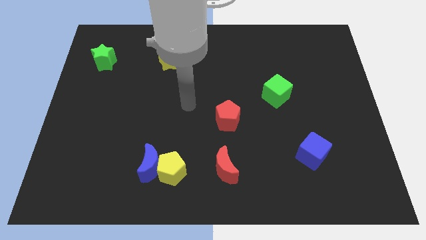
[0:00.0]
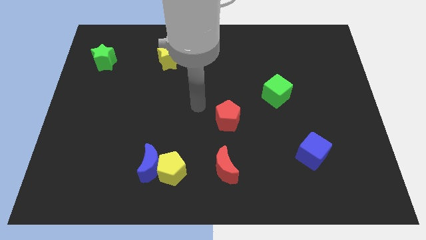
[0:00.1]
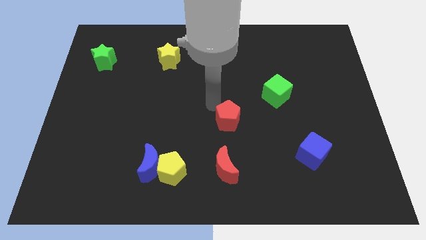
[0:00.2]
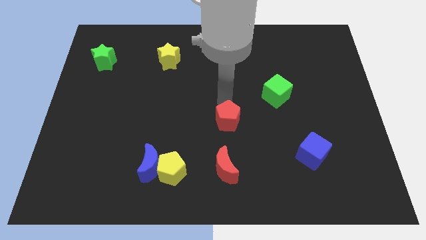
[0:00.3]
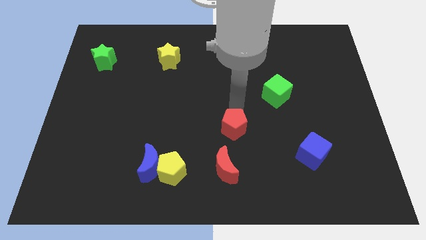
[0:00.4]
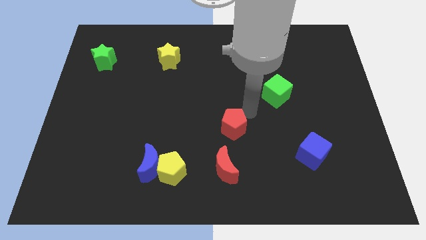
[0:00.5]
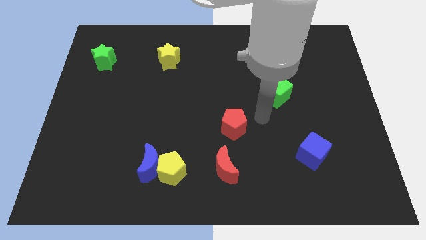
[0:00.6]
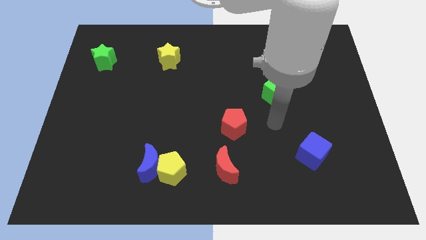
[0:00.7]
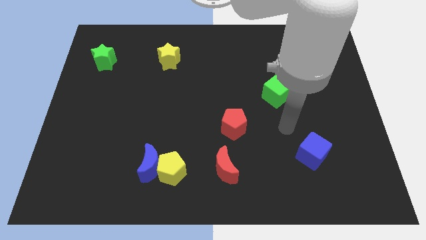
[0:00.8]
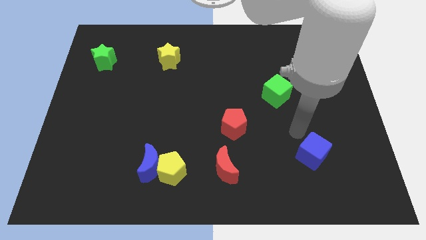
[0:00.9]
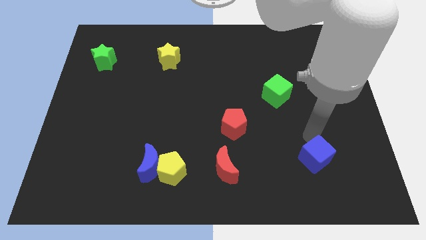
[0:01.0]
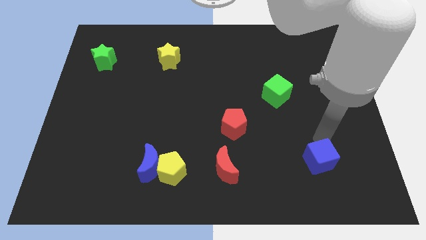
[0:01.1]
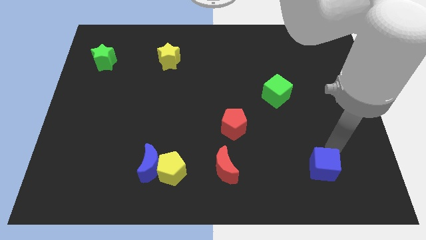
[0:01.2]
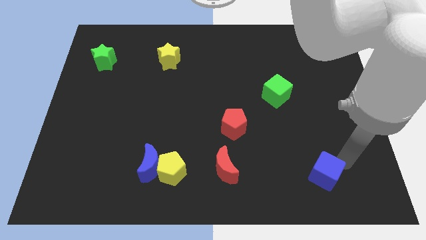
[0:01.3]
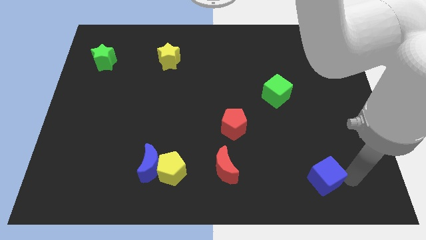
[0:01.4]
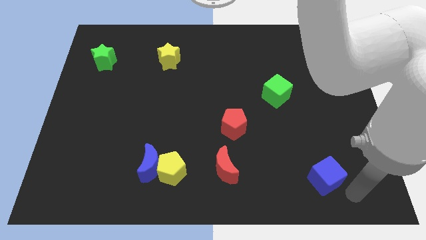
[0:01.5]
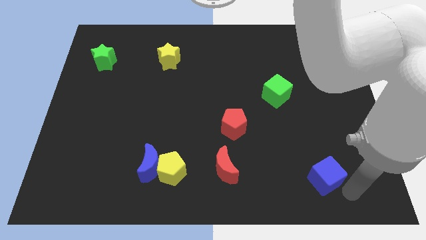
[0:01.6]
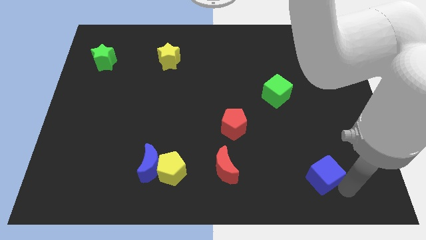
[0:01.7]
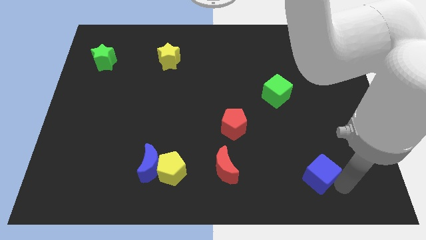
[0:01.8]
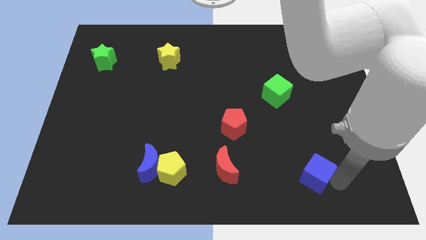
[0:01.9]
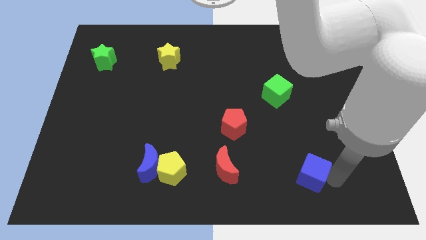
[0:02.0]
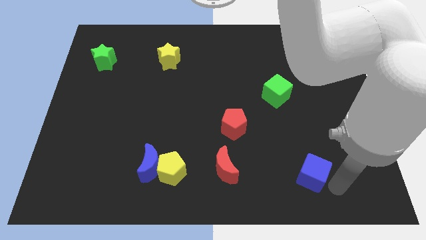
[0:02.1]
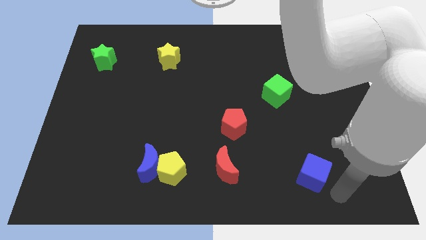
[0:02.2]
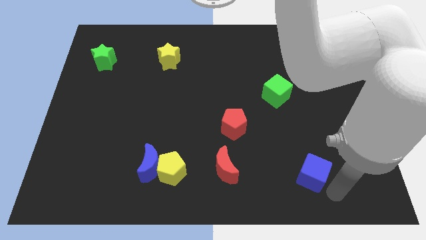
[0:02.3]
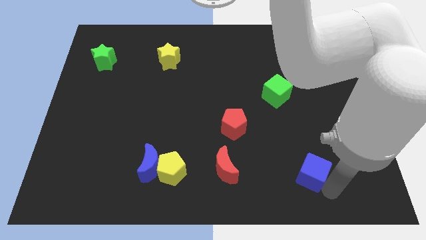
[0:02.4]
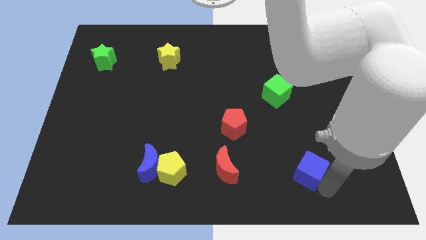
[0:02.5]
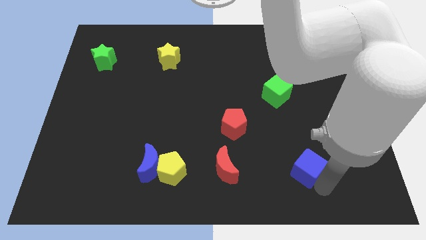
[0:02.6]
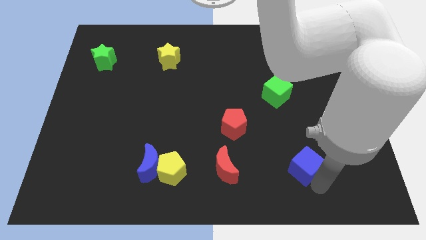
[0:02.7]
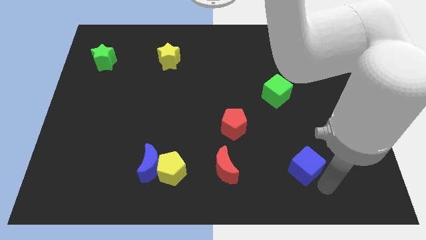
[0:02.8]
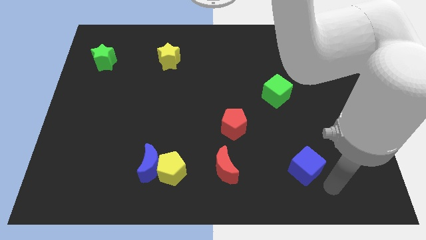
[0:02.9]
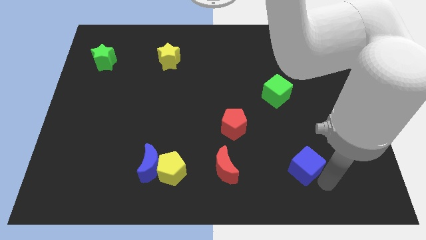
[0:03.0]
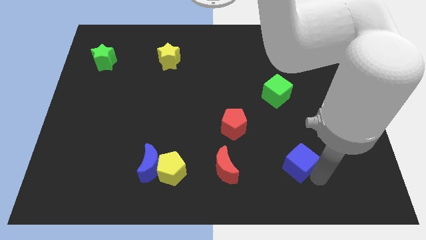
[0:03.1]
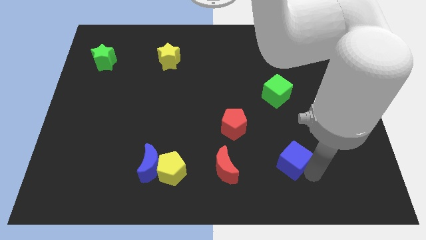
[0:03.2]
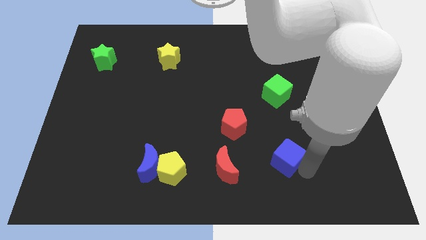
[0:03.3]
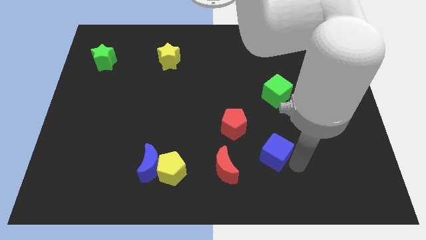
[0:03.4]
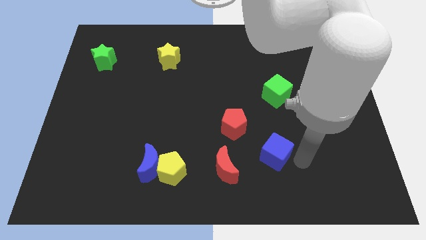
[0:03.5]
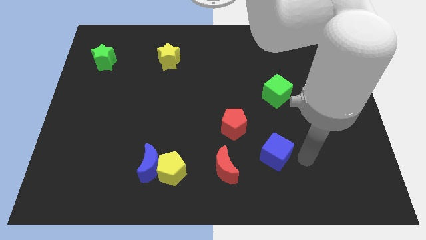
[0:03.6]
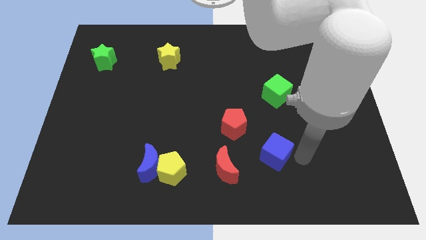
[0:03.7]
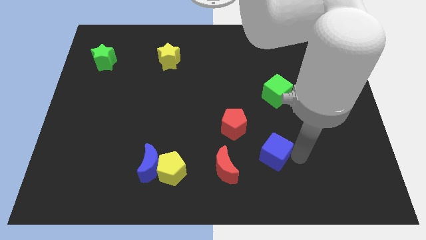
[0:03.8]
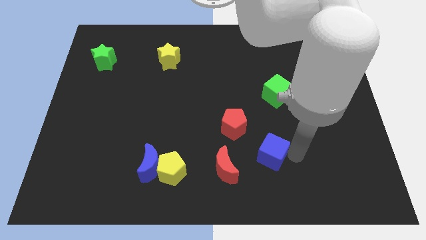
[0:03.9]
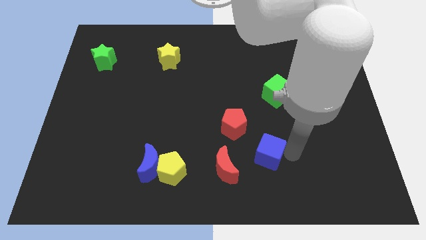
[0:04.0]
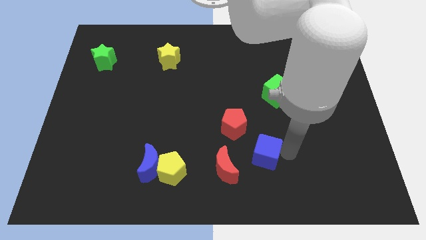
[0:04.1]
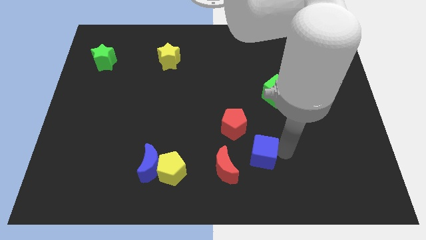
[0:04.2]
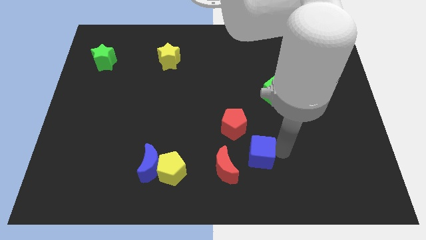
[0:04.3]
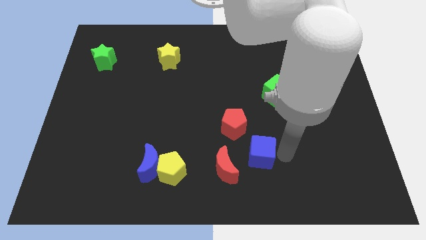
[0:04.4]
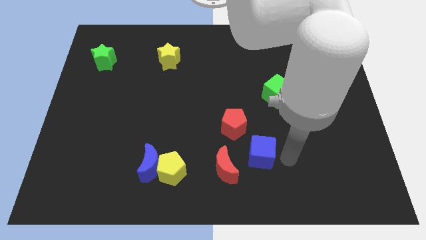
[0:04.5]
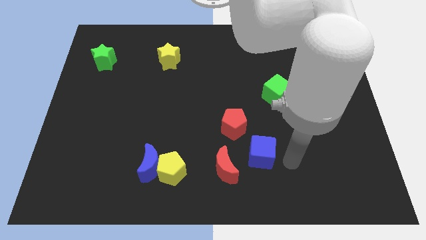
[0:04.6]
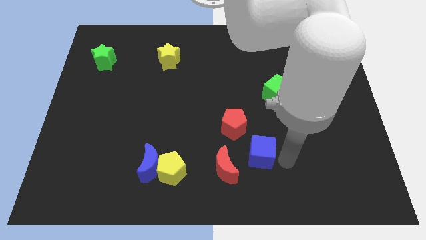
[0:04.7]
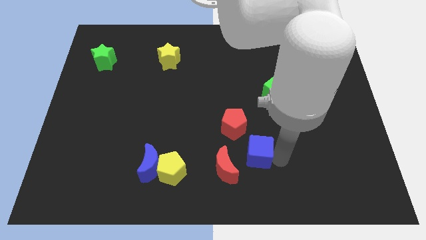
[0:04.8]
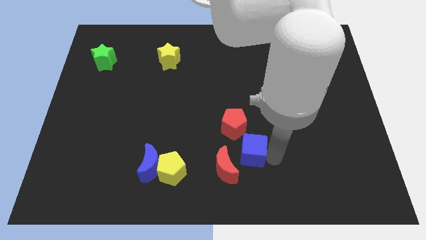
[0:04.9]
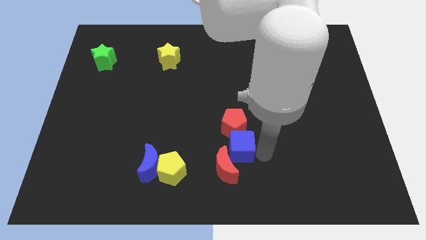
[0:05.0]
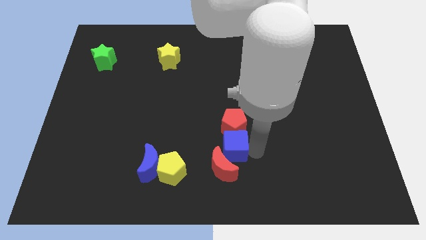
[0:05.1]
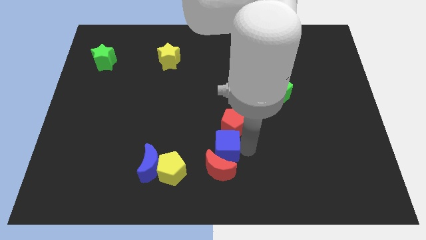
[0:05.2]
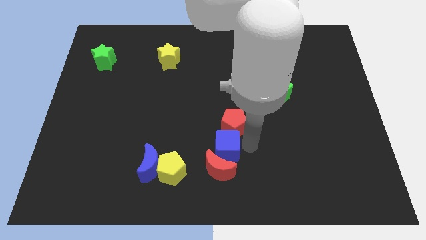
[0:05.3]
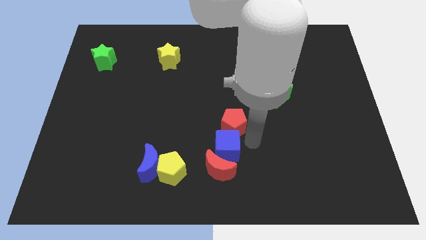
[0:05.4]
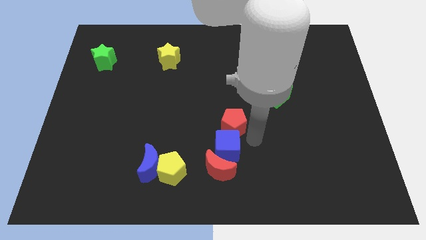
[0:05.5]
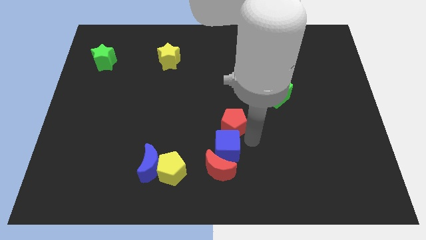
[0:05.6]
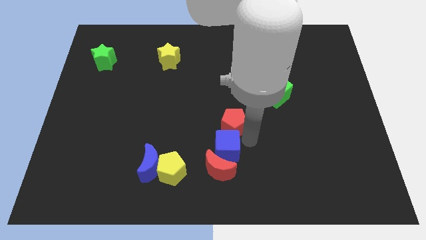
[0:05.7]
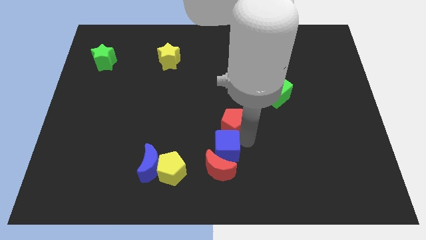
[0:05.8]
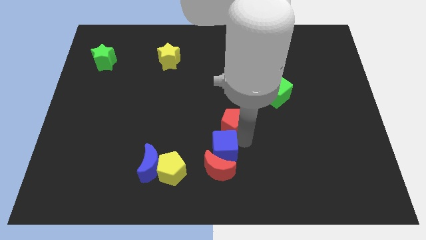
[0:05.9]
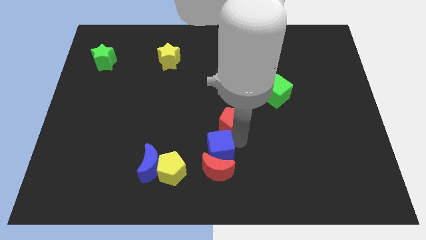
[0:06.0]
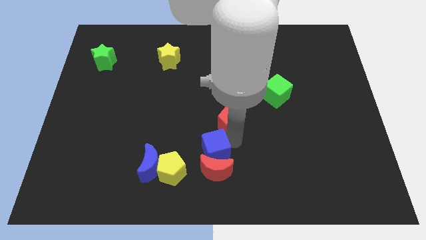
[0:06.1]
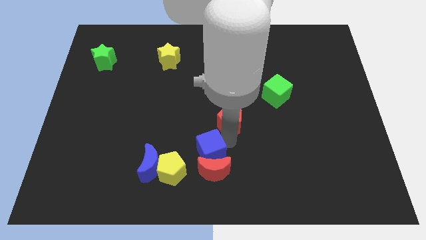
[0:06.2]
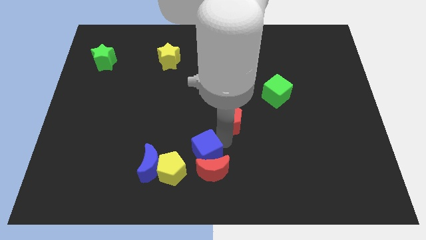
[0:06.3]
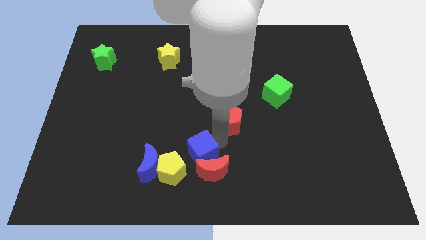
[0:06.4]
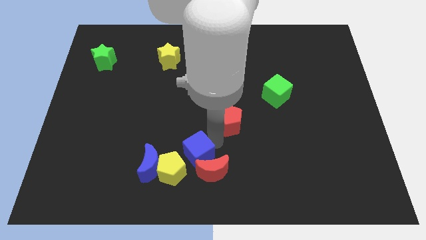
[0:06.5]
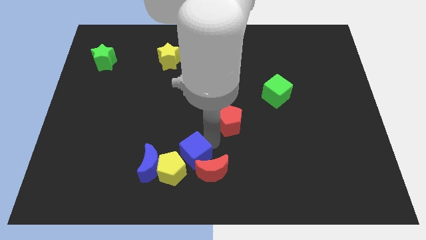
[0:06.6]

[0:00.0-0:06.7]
slide the blue cube next to the yellow pentagon

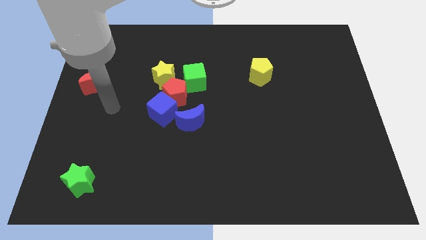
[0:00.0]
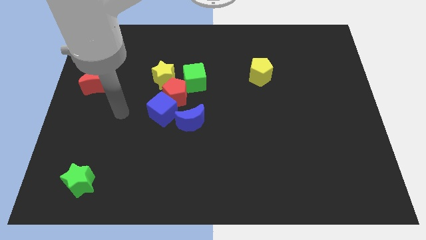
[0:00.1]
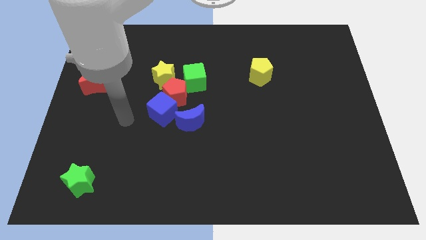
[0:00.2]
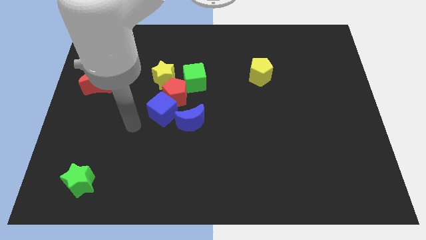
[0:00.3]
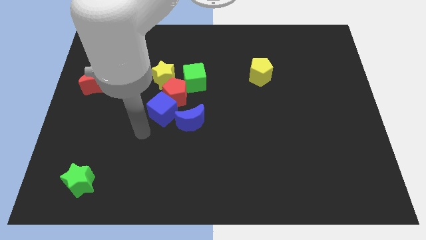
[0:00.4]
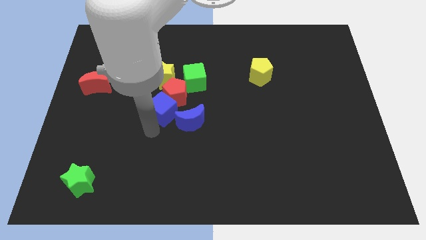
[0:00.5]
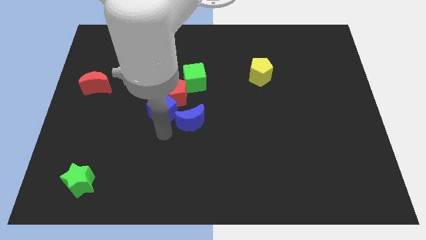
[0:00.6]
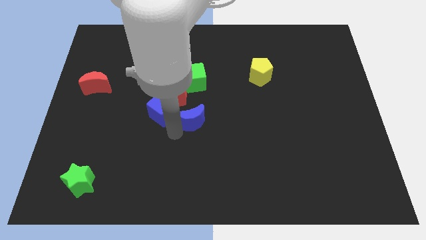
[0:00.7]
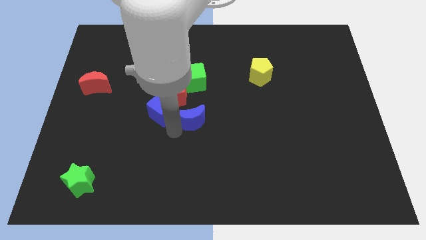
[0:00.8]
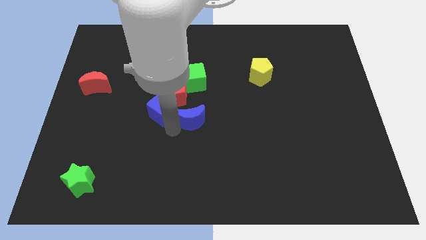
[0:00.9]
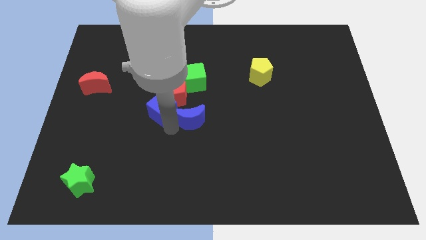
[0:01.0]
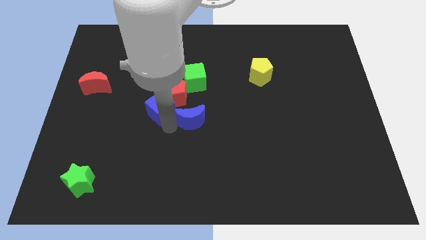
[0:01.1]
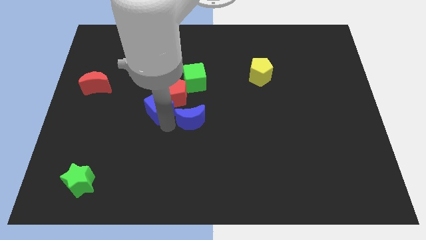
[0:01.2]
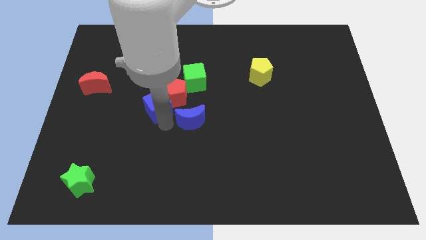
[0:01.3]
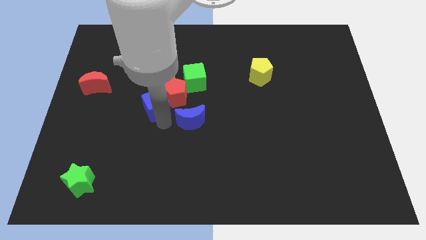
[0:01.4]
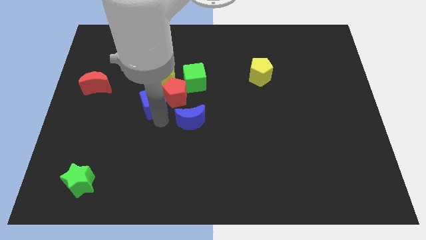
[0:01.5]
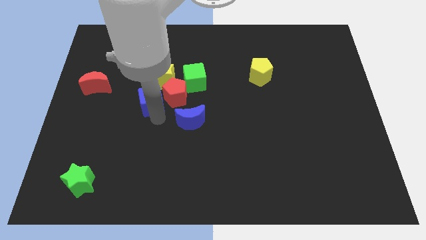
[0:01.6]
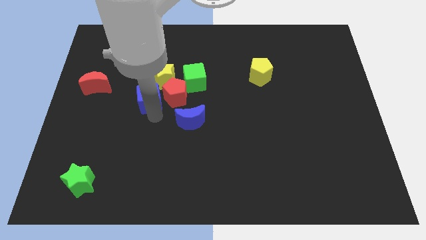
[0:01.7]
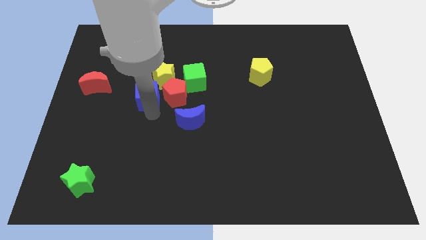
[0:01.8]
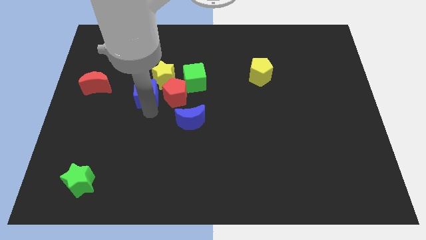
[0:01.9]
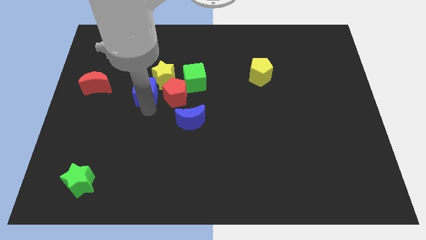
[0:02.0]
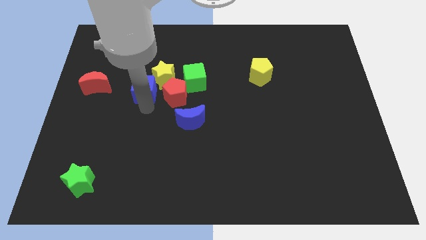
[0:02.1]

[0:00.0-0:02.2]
move the blue cube to the yellow star
